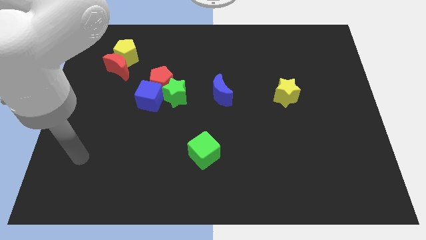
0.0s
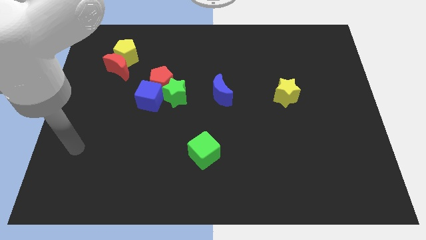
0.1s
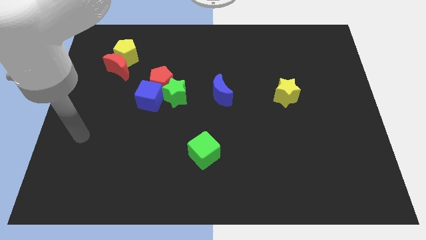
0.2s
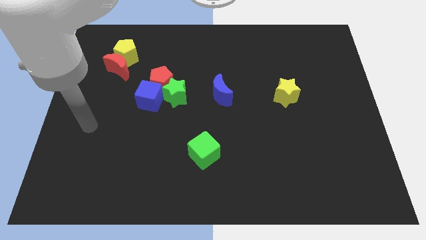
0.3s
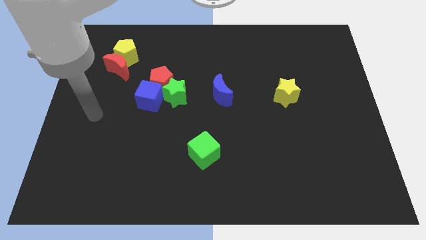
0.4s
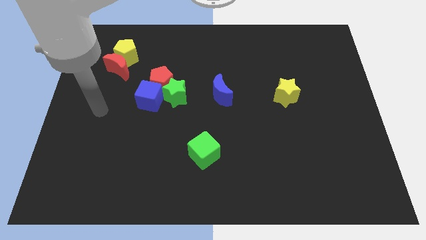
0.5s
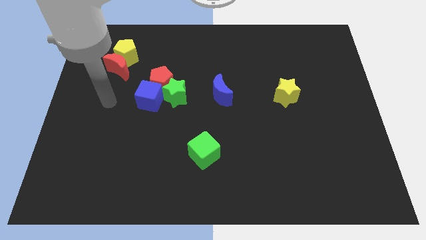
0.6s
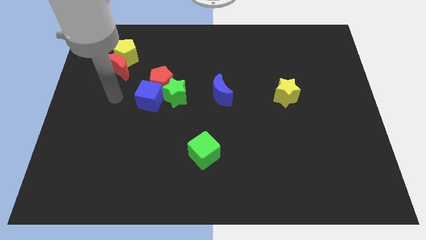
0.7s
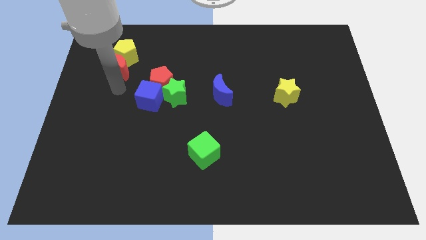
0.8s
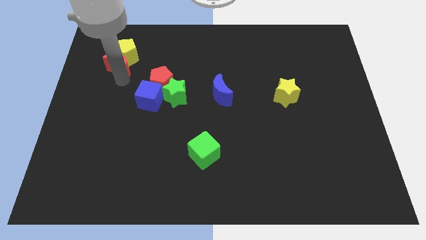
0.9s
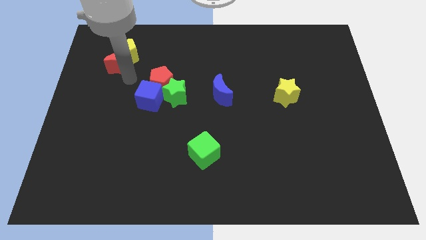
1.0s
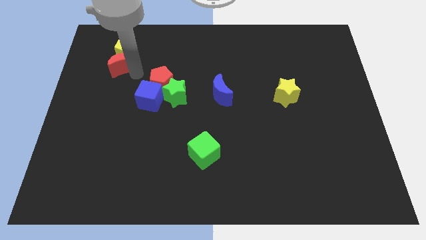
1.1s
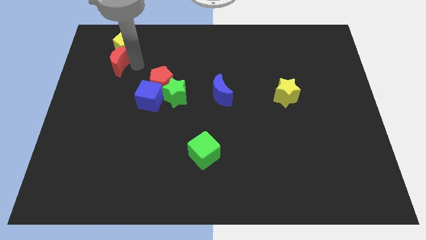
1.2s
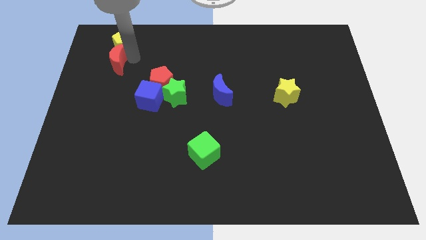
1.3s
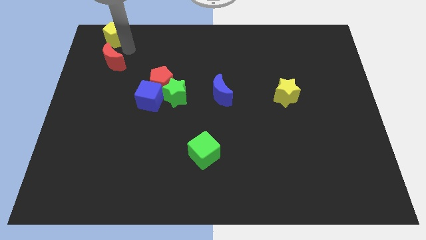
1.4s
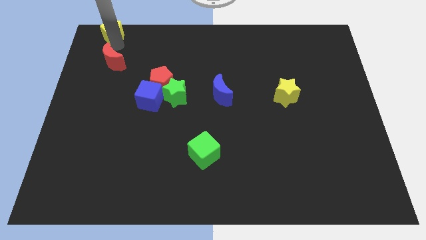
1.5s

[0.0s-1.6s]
move the red moon away from the yellow pentagon

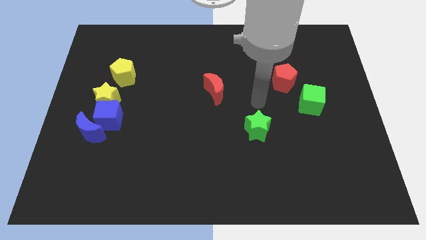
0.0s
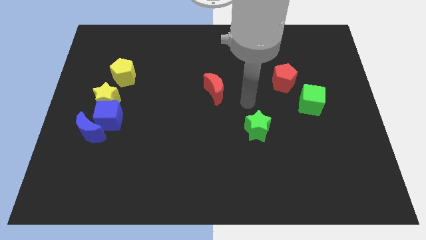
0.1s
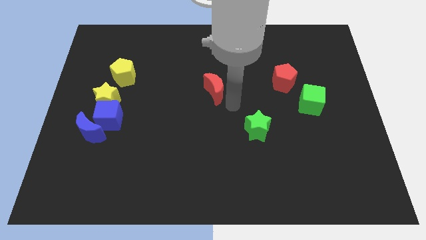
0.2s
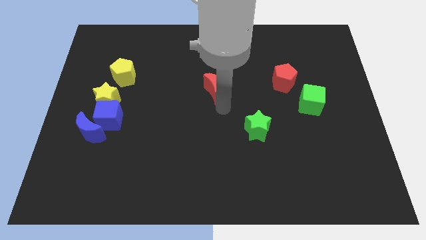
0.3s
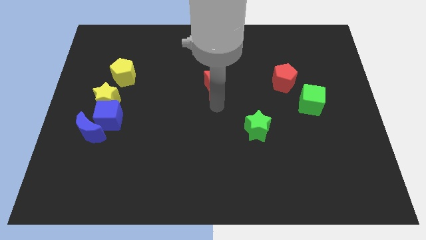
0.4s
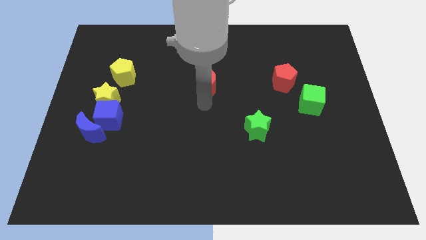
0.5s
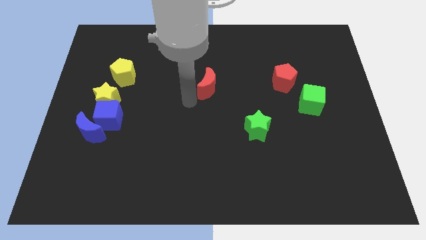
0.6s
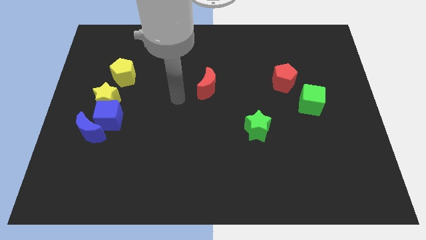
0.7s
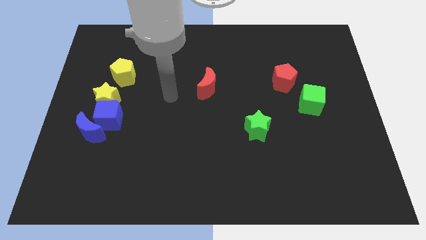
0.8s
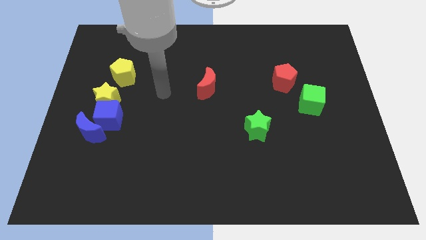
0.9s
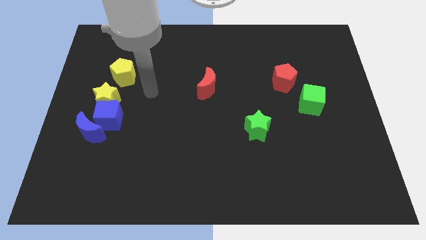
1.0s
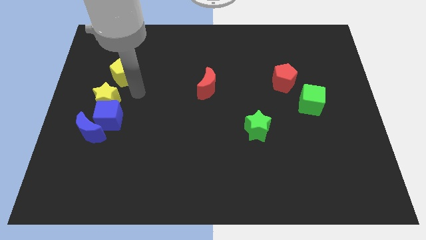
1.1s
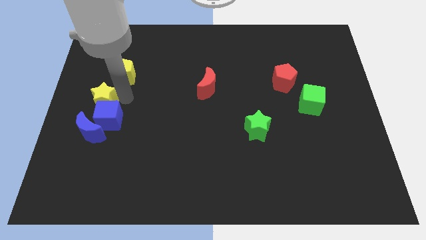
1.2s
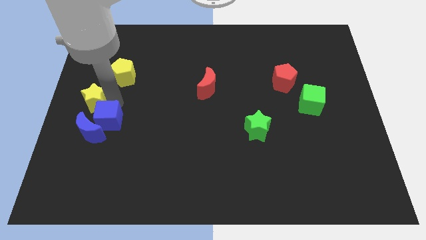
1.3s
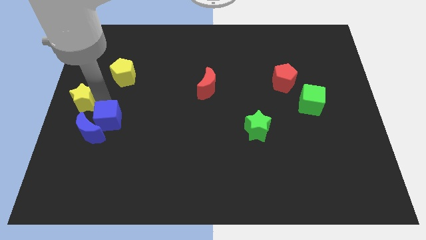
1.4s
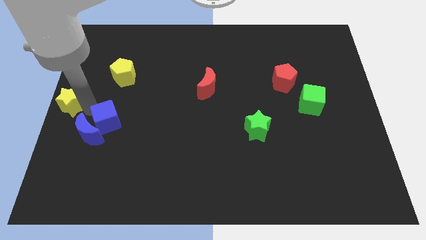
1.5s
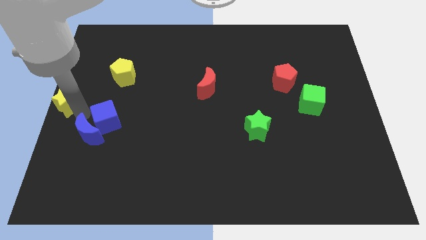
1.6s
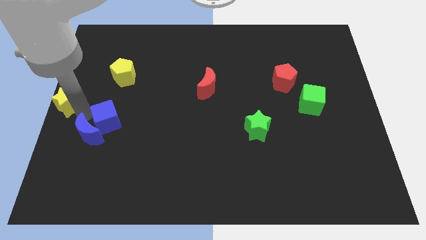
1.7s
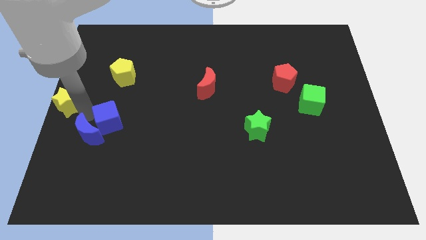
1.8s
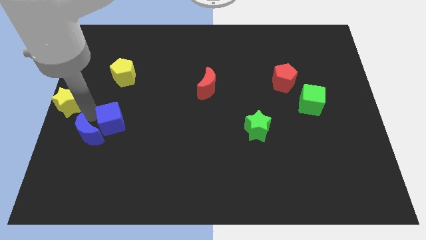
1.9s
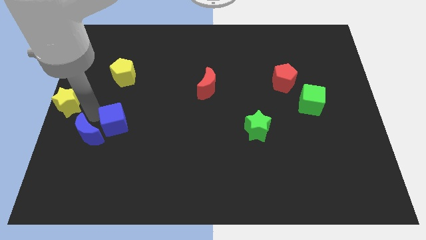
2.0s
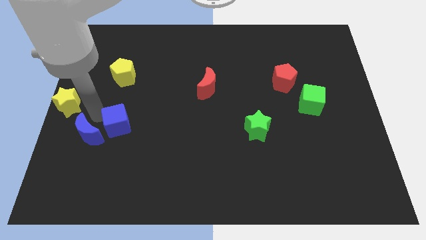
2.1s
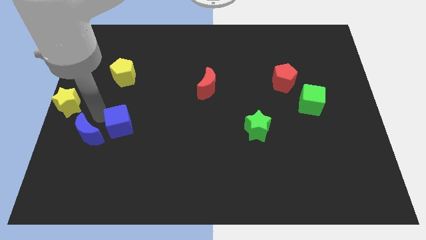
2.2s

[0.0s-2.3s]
pull the blue cube apart from the yellow star and blue moon

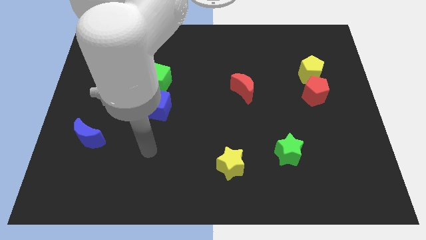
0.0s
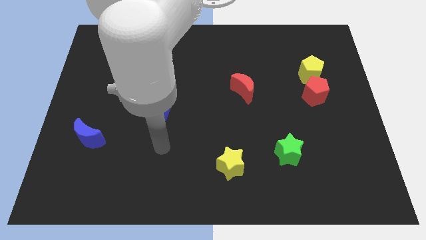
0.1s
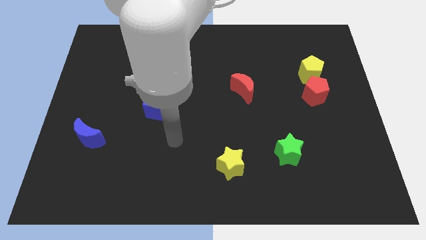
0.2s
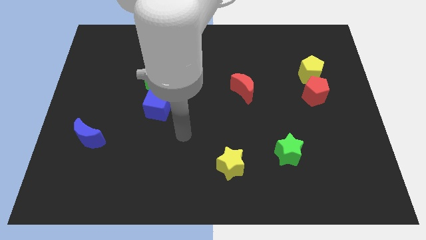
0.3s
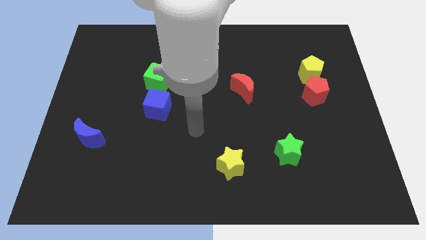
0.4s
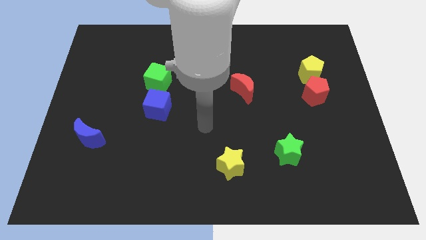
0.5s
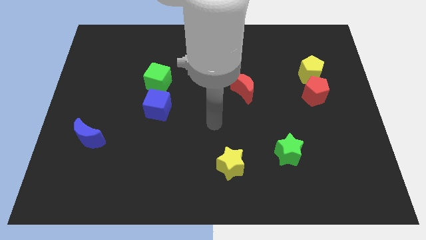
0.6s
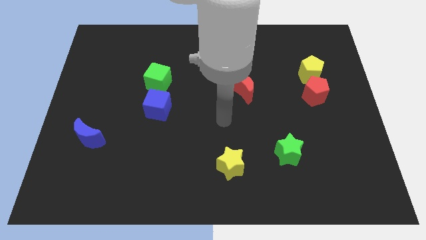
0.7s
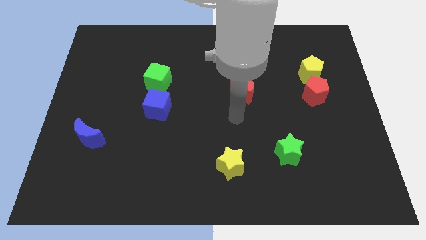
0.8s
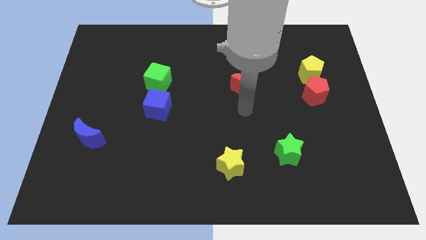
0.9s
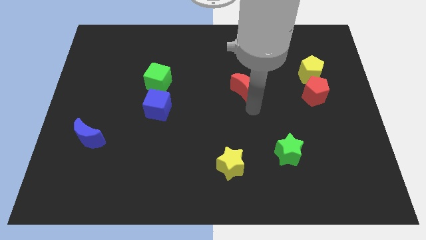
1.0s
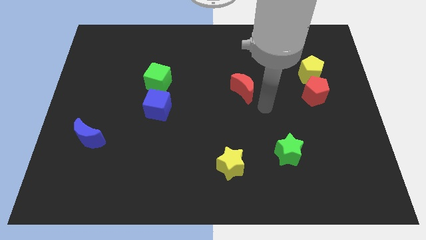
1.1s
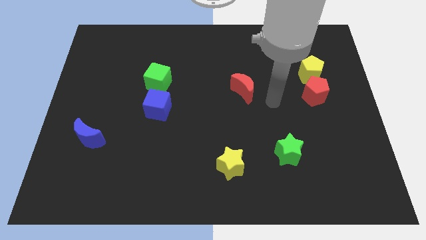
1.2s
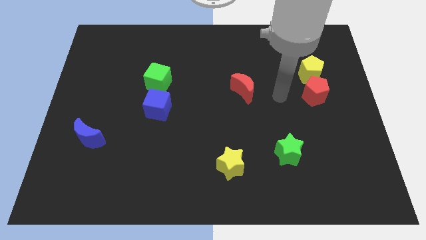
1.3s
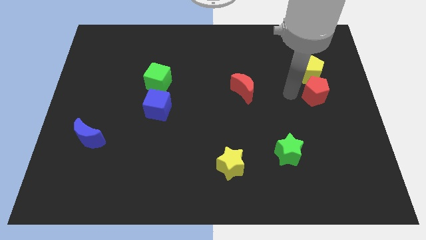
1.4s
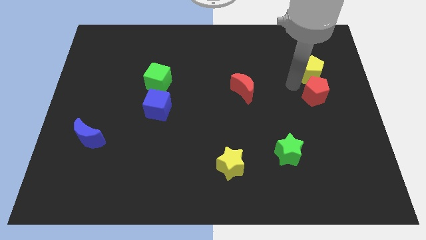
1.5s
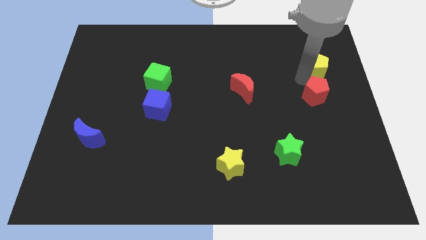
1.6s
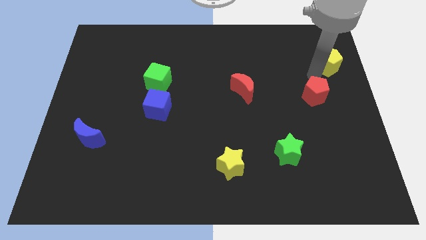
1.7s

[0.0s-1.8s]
separate the red pentagon from the yellow pentagon

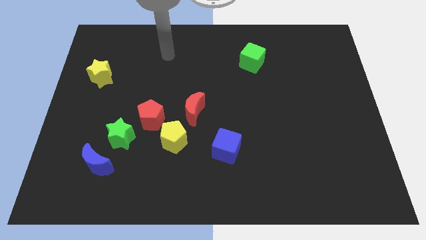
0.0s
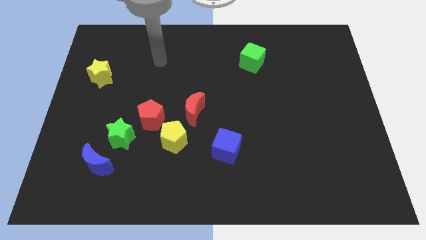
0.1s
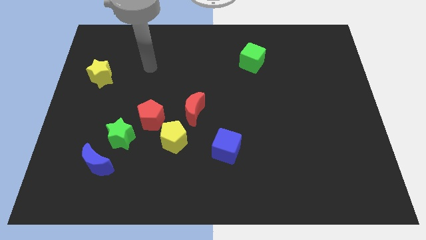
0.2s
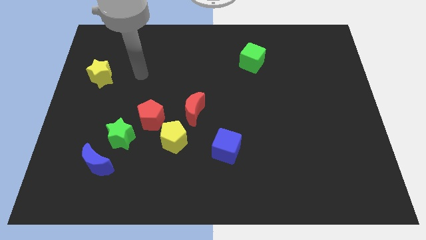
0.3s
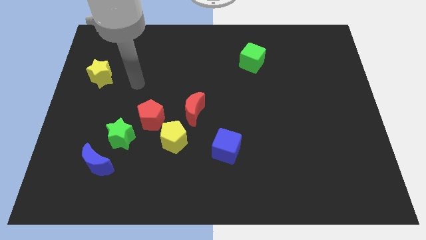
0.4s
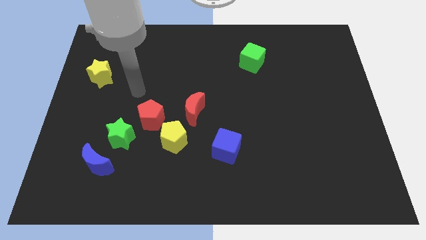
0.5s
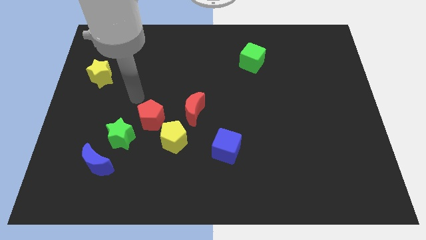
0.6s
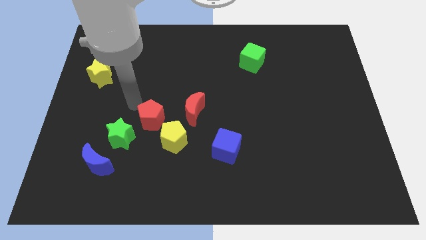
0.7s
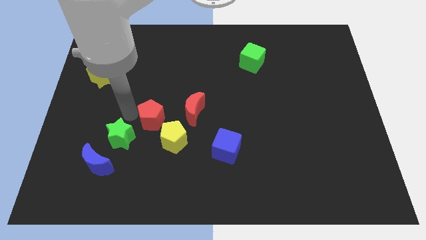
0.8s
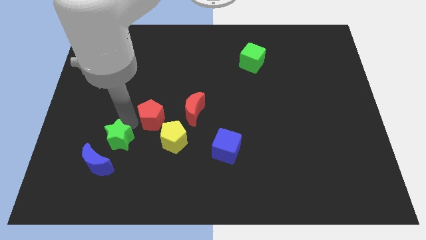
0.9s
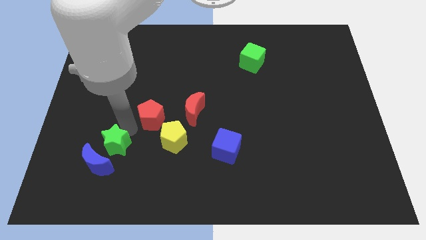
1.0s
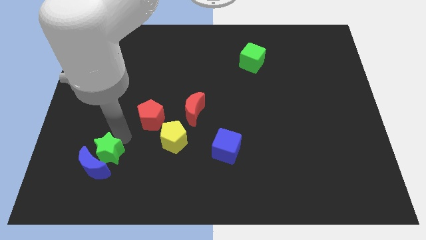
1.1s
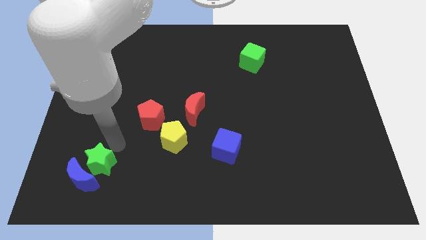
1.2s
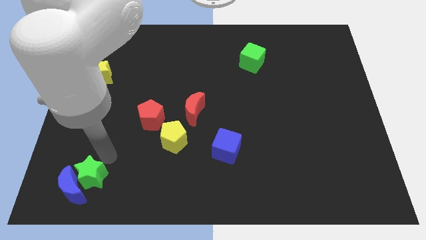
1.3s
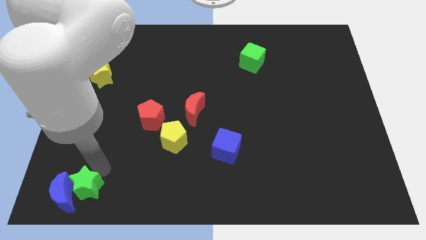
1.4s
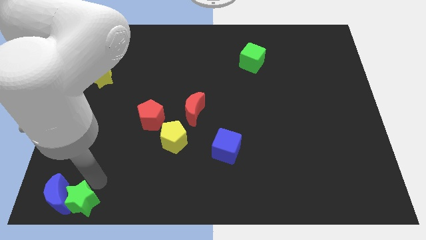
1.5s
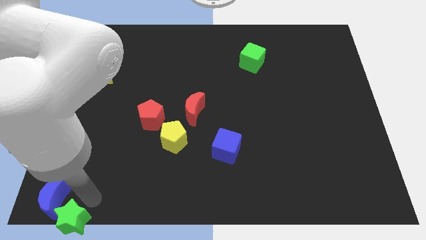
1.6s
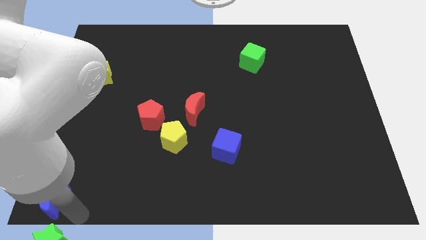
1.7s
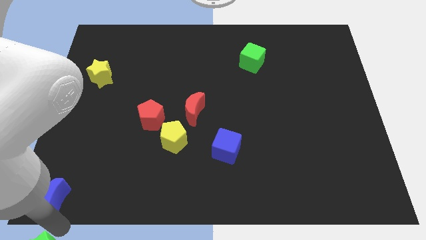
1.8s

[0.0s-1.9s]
separate the blue moon from the green star

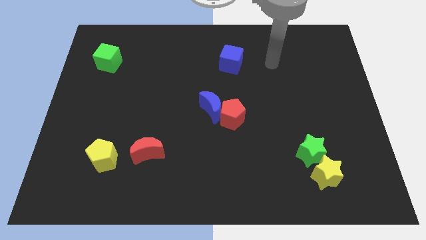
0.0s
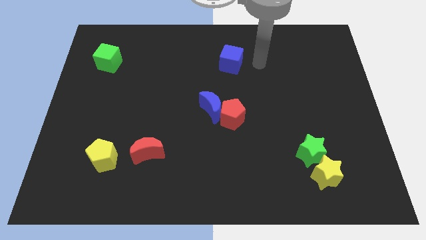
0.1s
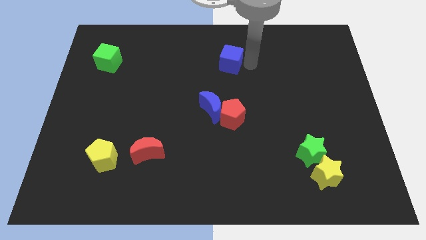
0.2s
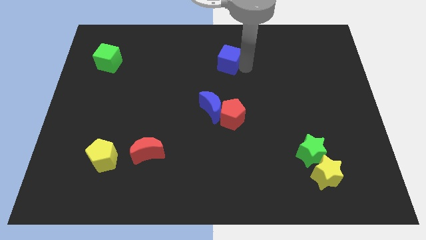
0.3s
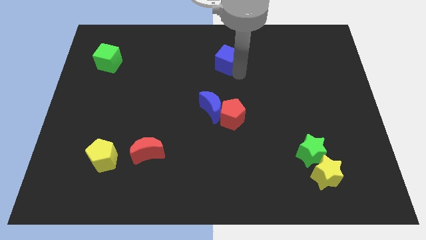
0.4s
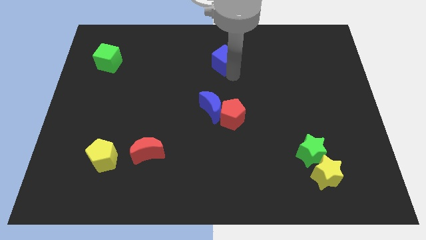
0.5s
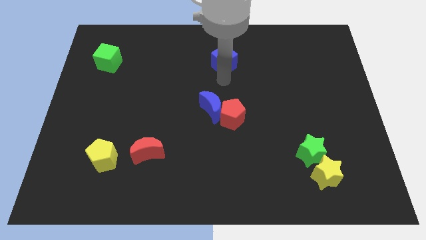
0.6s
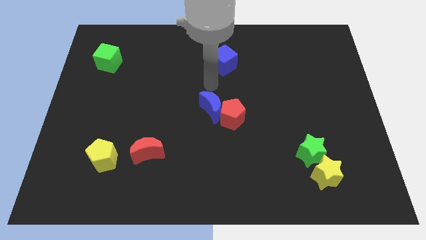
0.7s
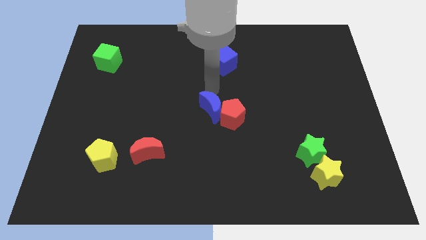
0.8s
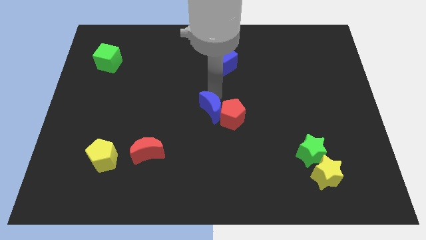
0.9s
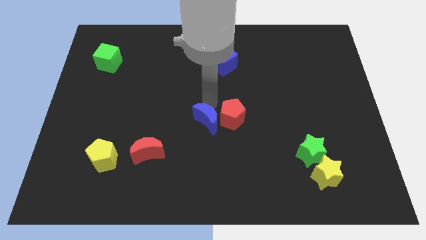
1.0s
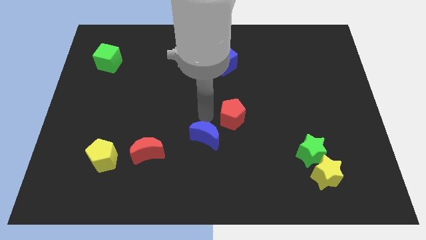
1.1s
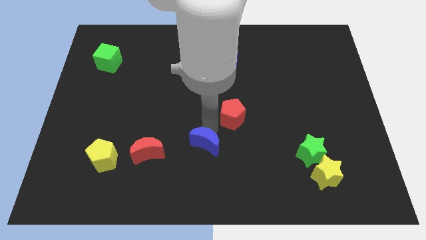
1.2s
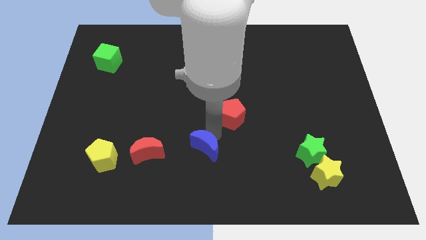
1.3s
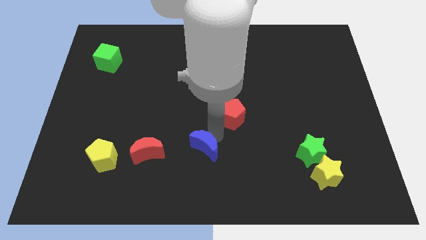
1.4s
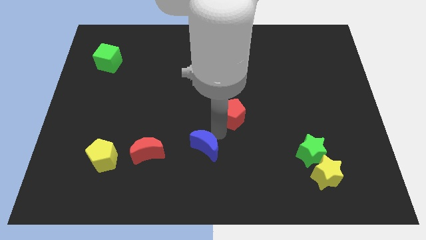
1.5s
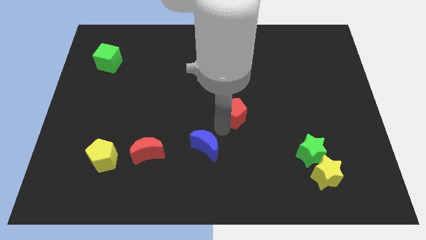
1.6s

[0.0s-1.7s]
move the red pentagon away from the blue moon

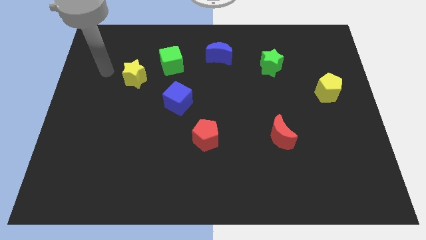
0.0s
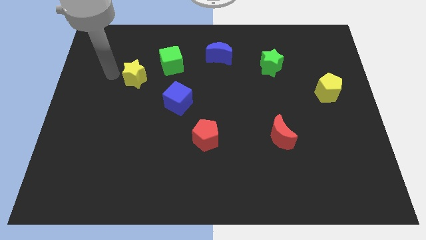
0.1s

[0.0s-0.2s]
pull the green cube apart from the yellow star

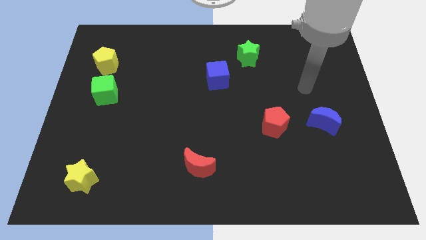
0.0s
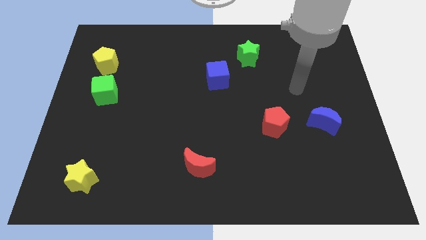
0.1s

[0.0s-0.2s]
separate the green cube from the yellow pentagon
